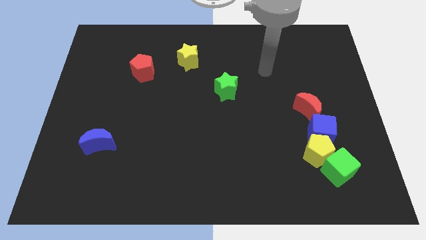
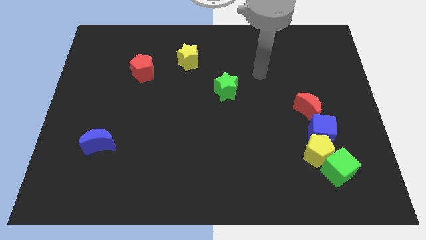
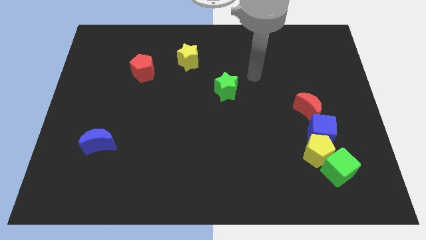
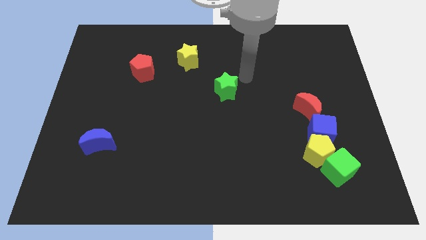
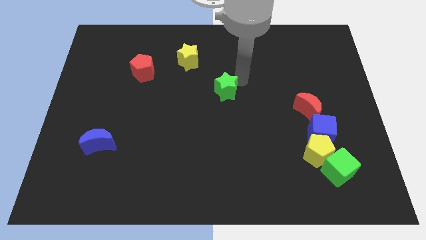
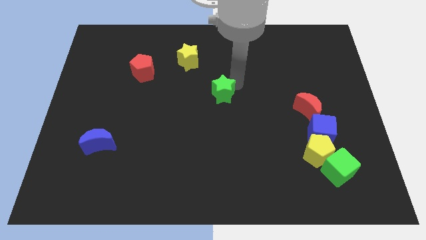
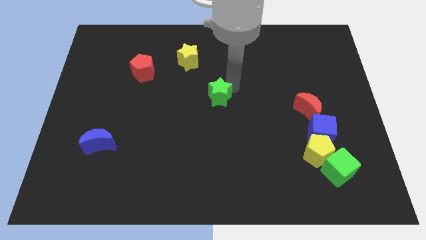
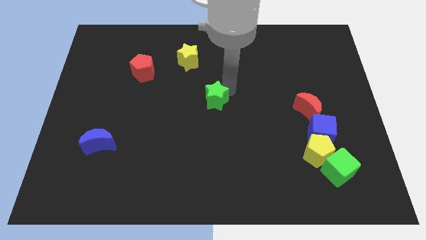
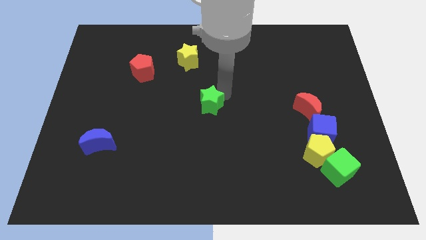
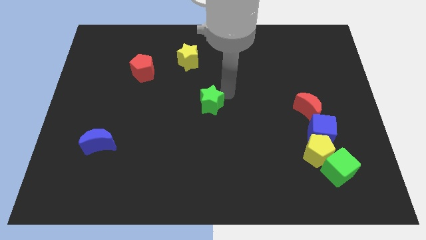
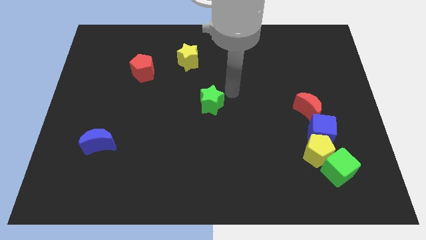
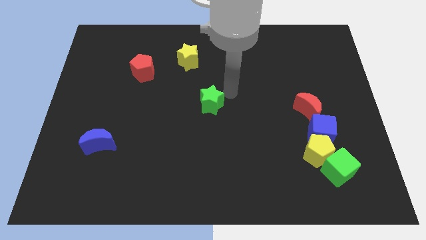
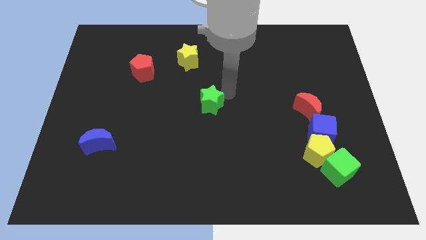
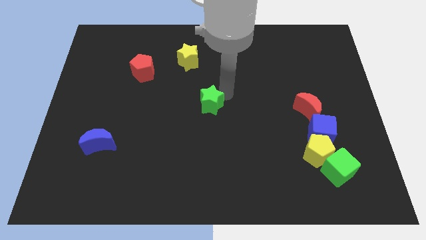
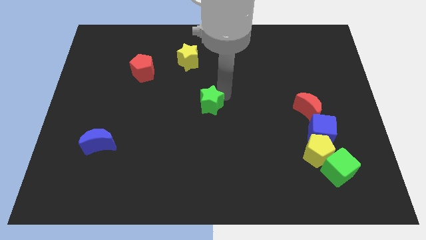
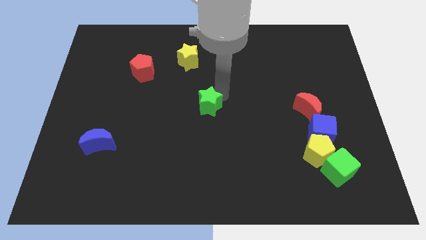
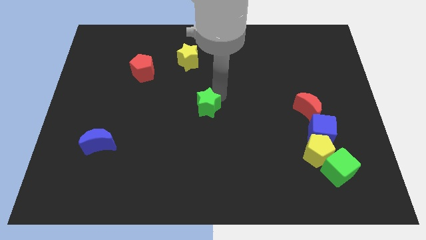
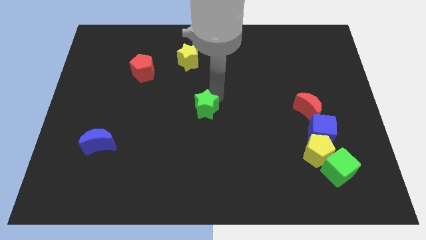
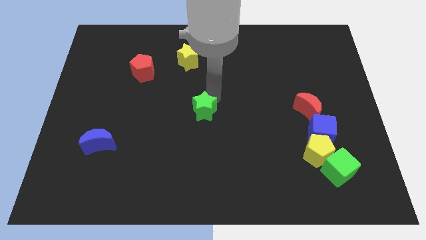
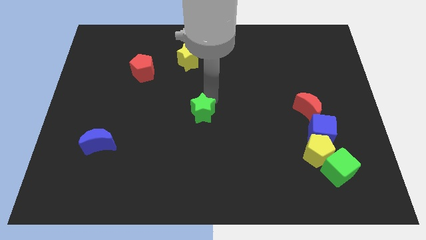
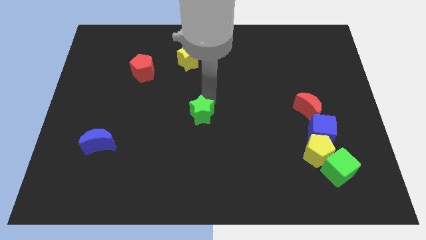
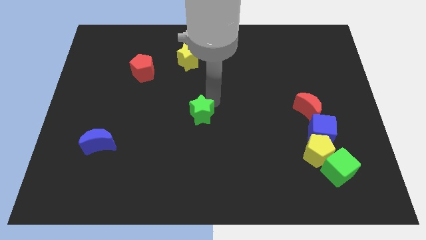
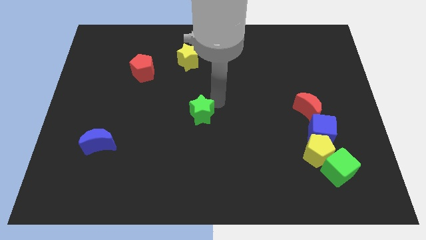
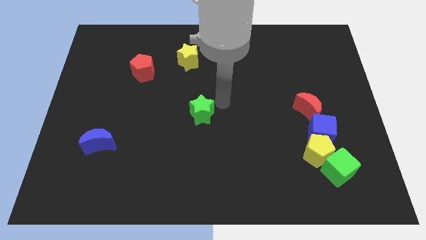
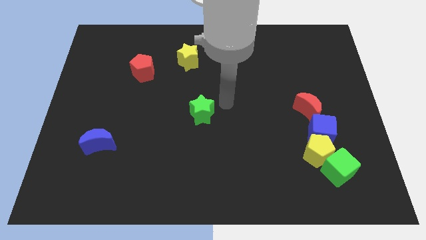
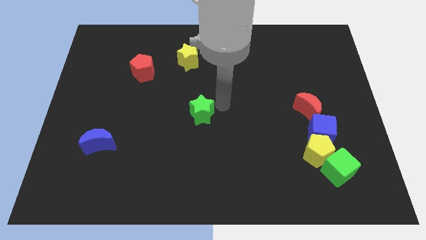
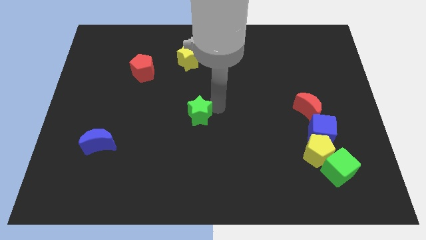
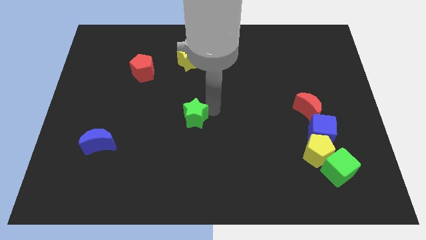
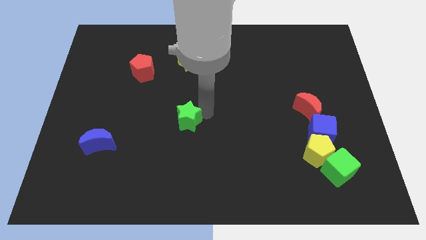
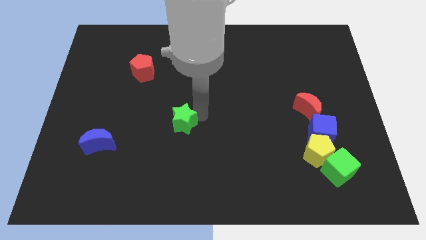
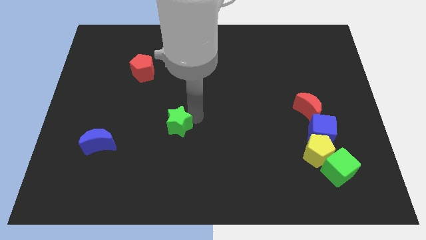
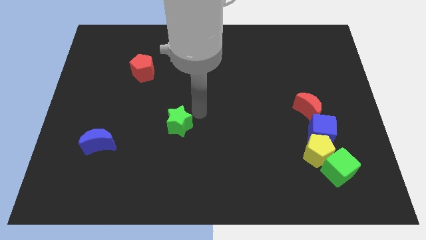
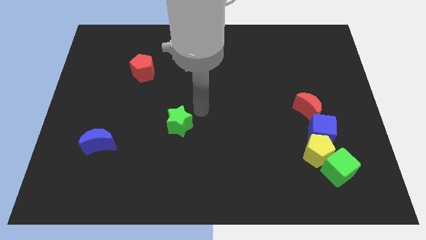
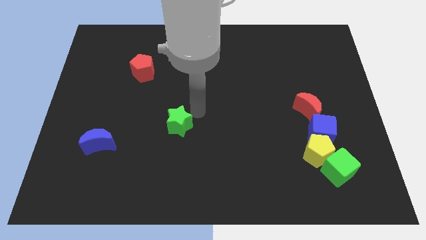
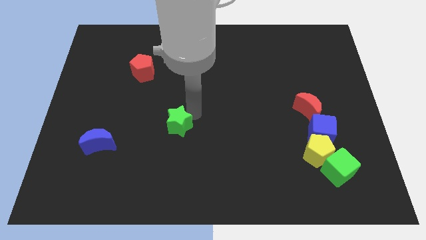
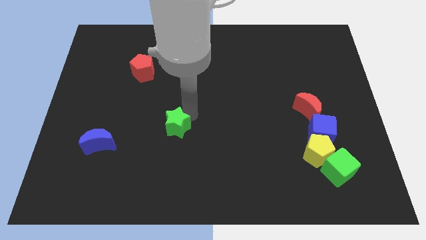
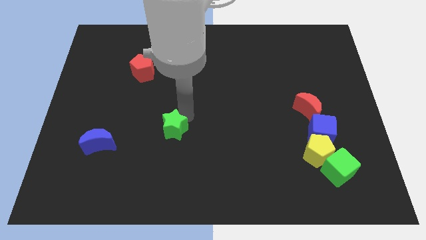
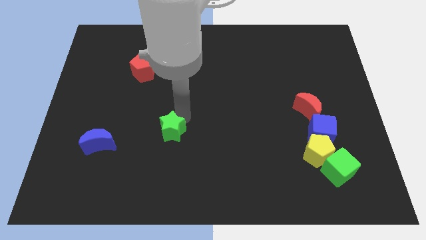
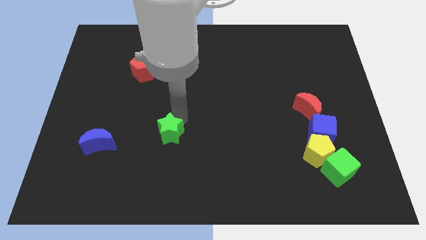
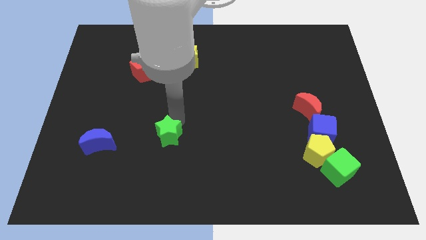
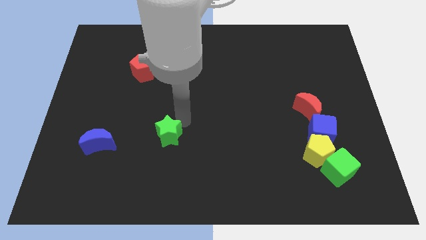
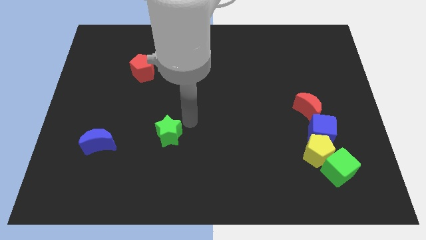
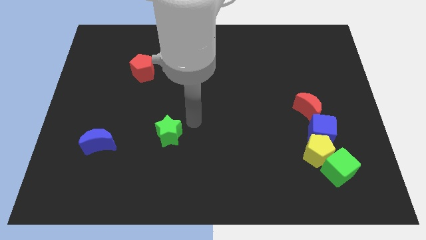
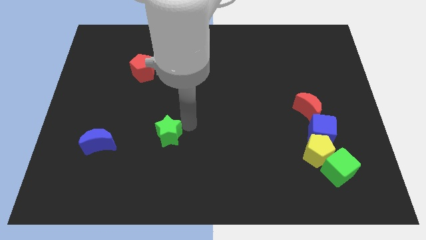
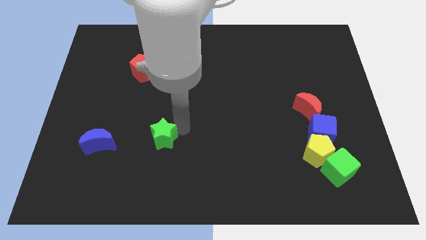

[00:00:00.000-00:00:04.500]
push the green star downwards and to the left diagonally

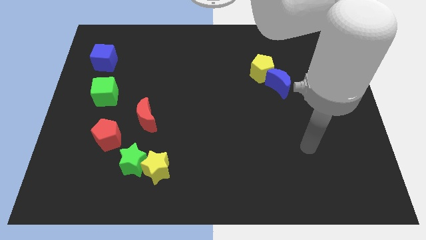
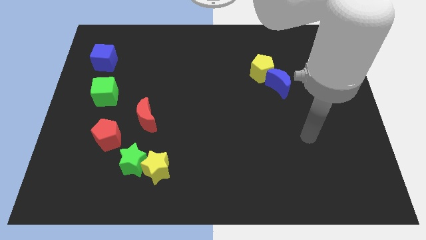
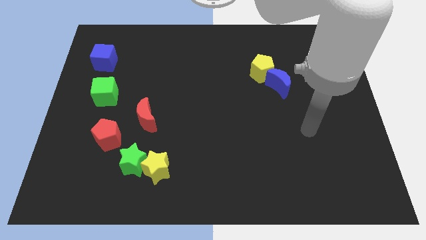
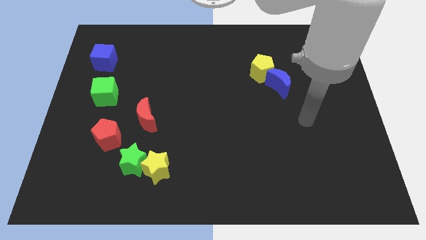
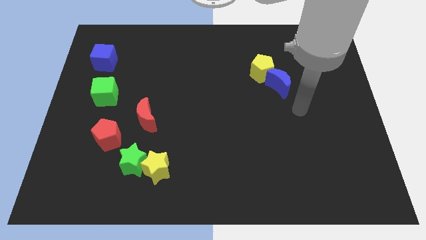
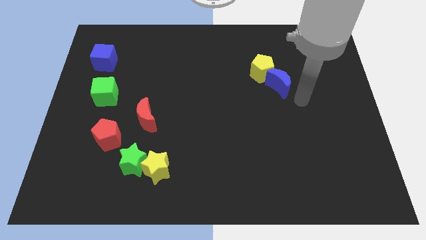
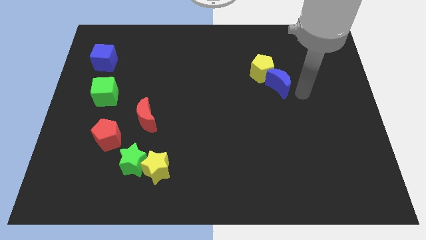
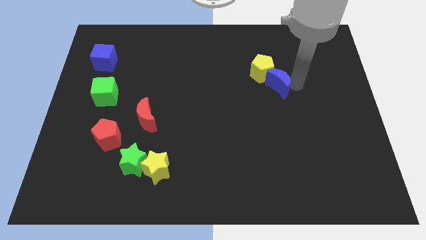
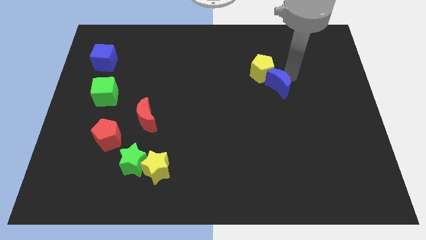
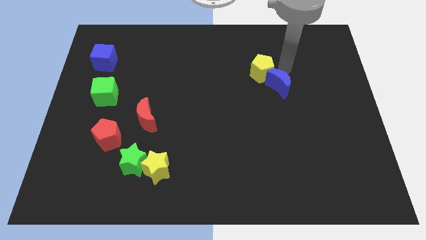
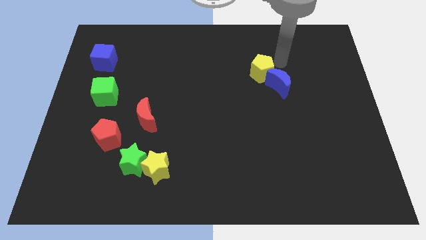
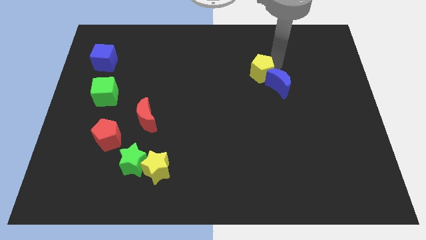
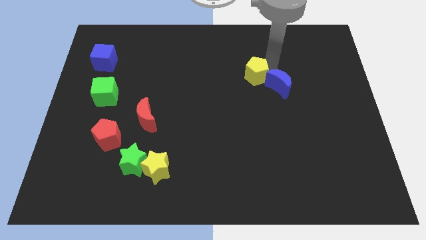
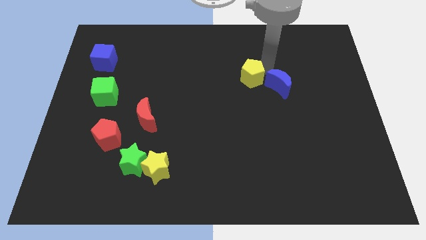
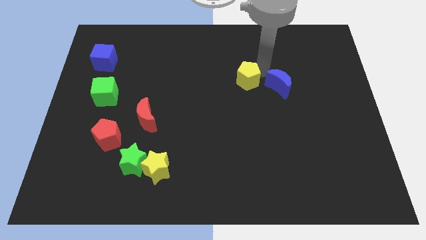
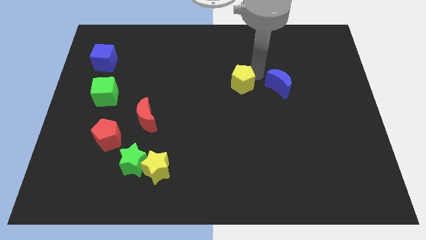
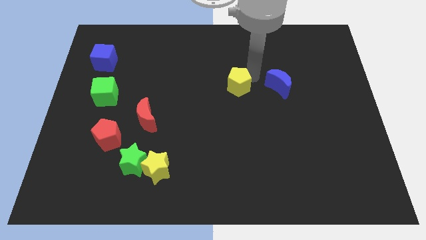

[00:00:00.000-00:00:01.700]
move the yellow pentagon downwards and to the left a bit

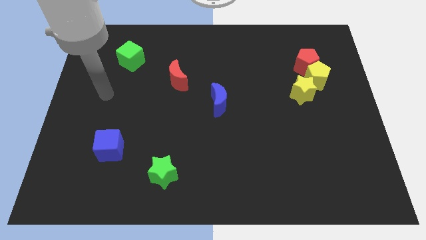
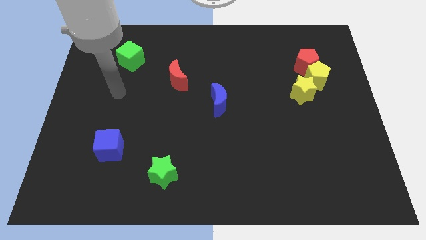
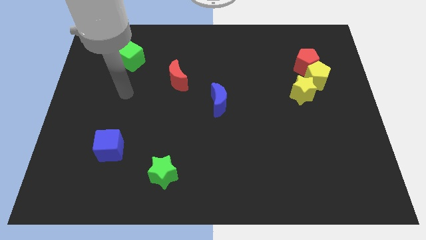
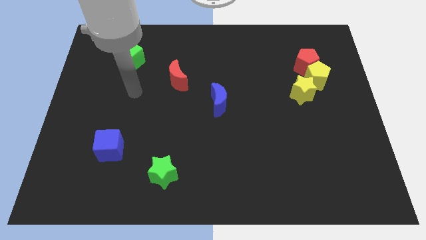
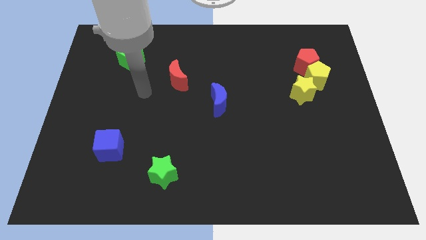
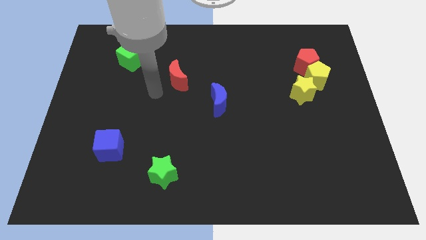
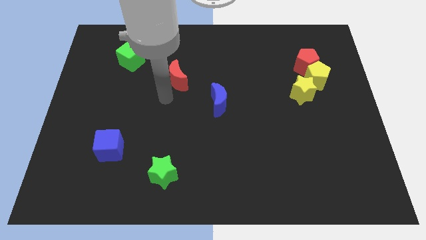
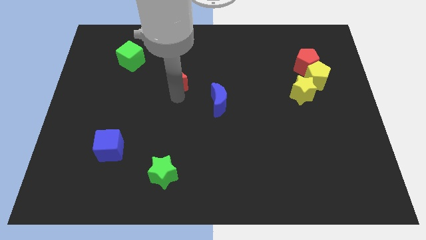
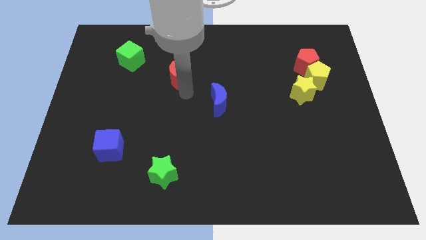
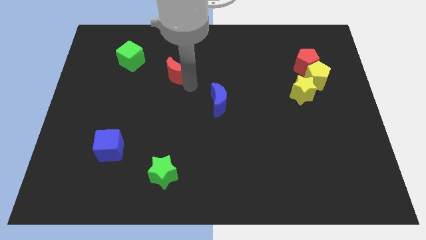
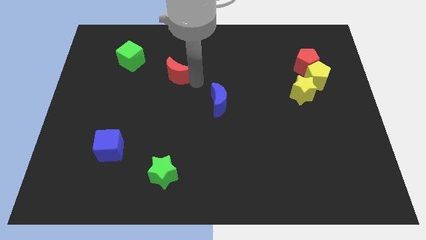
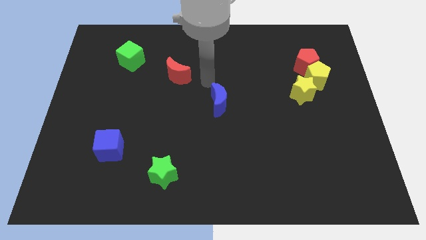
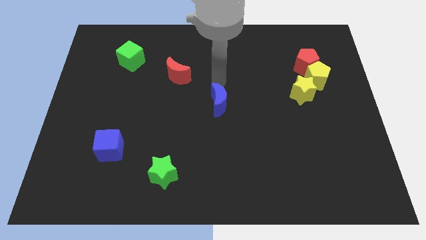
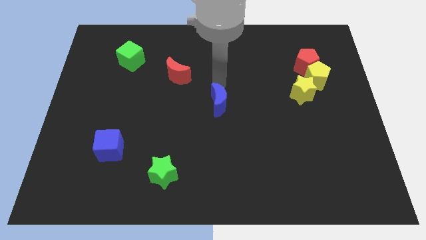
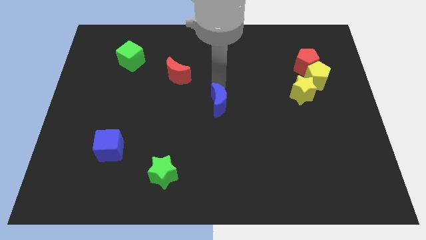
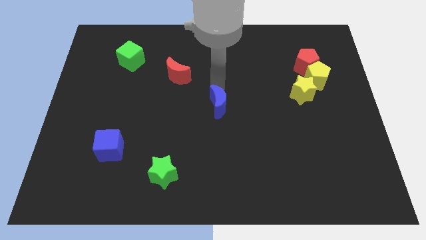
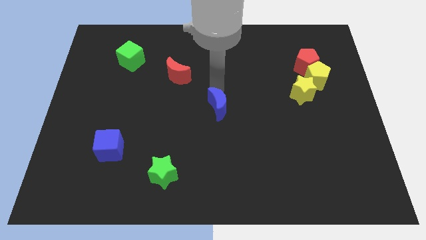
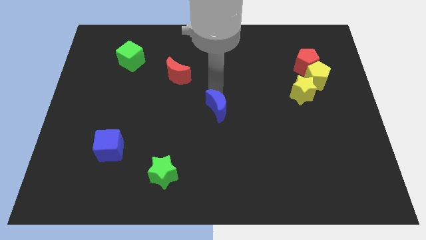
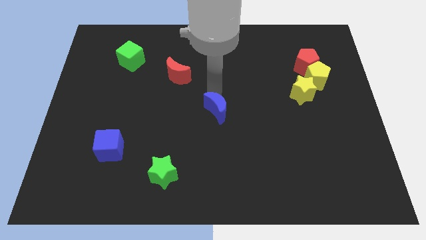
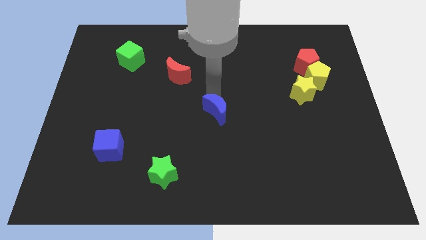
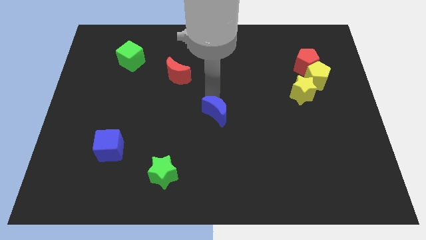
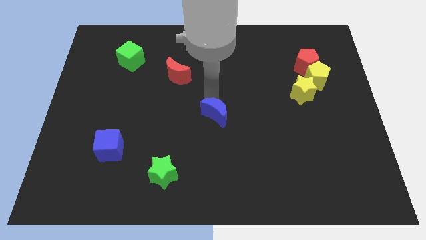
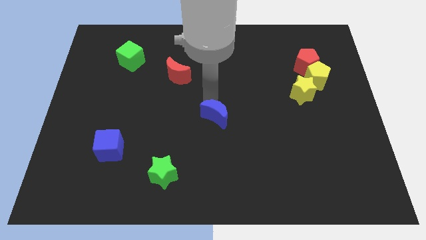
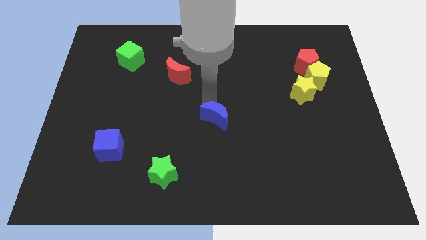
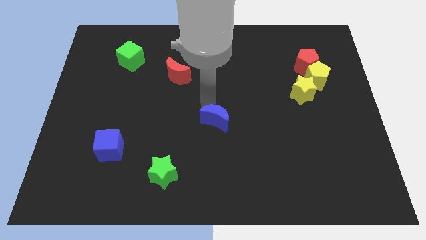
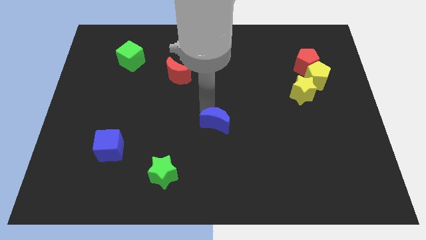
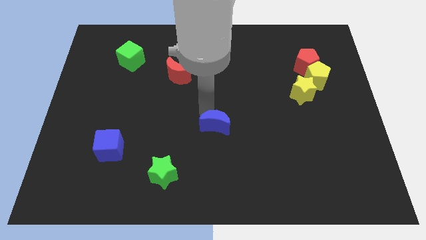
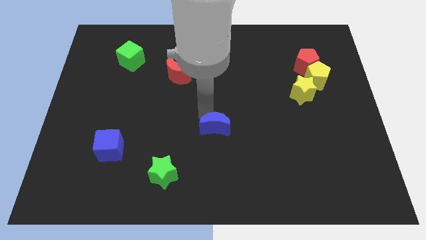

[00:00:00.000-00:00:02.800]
push the blue moon down a little
